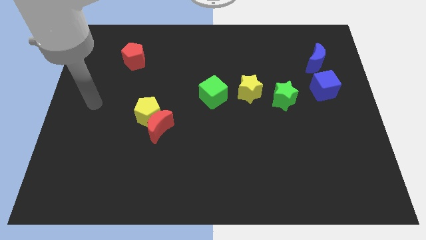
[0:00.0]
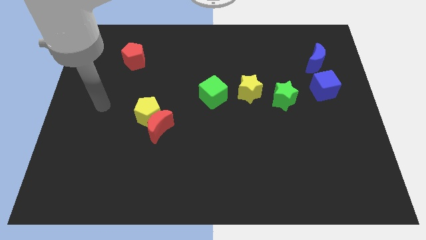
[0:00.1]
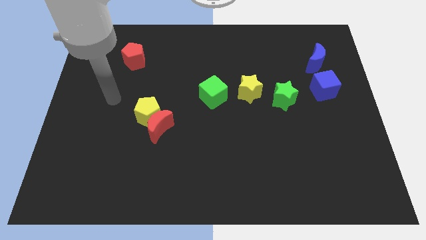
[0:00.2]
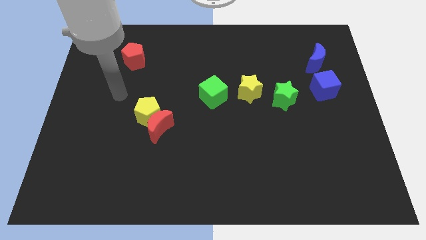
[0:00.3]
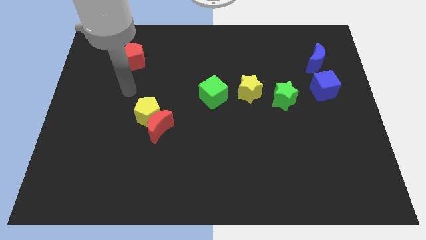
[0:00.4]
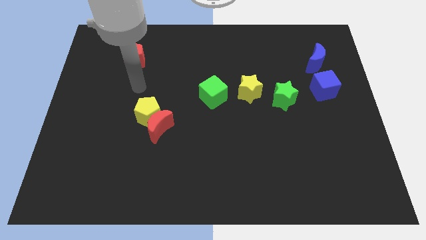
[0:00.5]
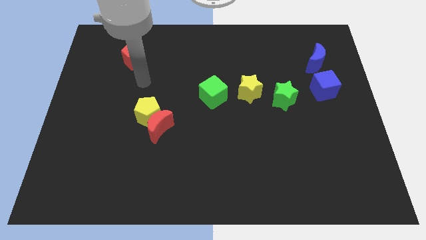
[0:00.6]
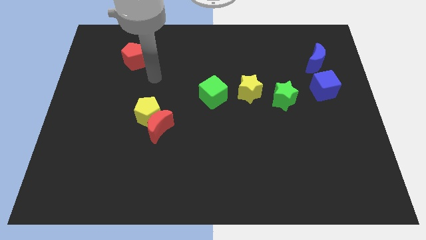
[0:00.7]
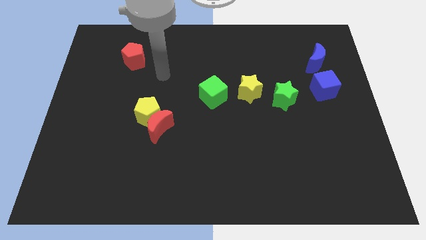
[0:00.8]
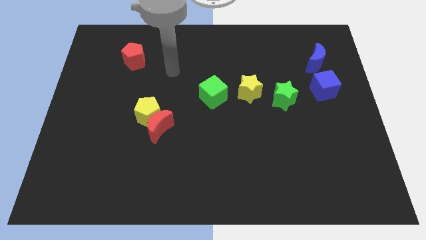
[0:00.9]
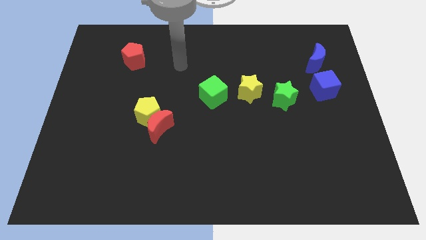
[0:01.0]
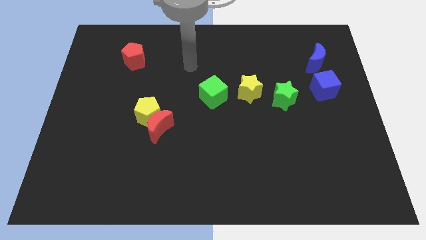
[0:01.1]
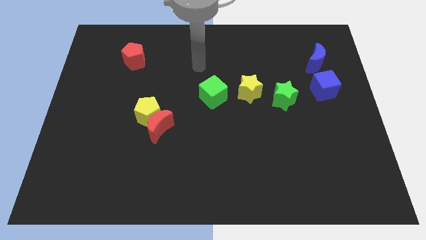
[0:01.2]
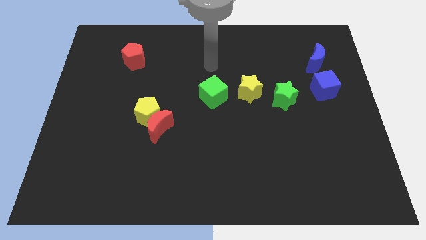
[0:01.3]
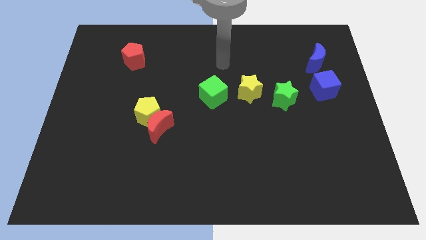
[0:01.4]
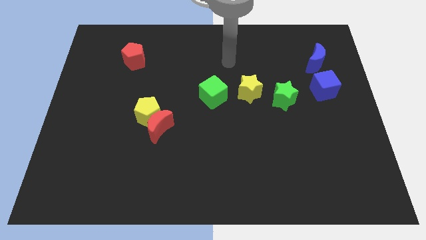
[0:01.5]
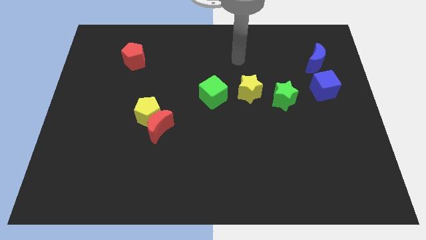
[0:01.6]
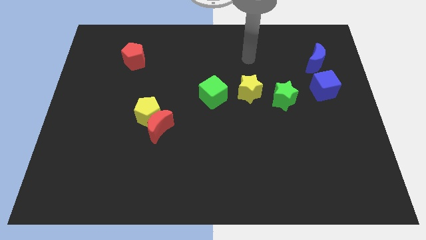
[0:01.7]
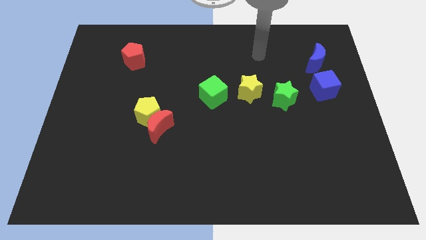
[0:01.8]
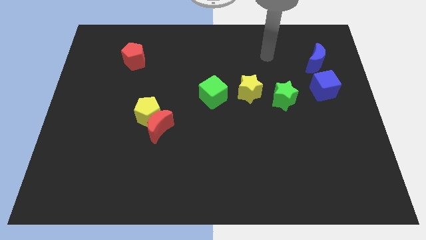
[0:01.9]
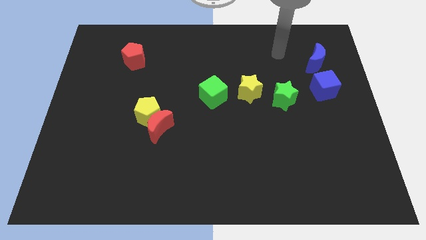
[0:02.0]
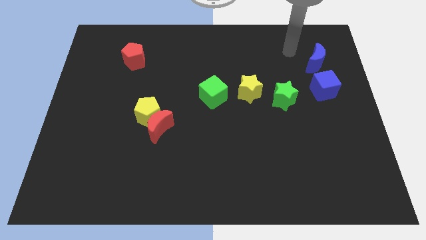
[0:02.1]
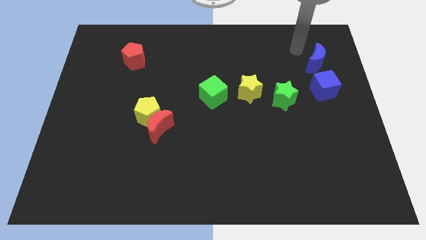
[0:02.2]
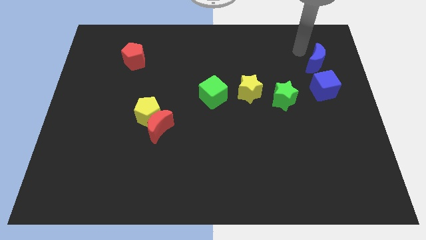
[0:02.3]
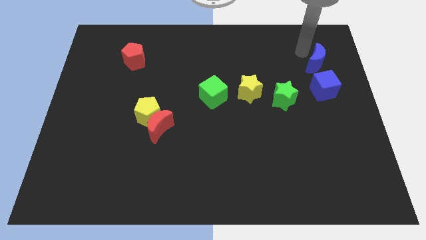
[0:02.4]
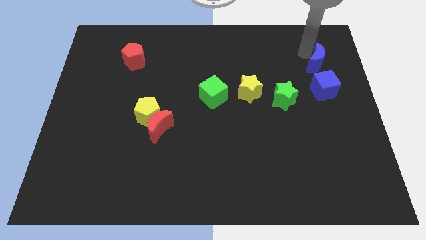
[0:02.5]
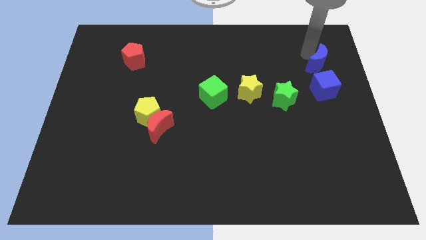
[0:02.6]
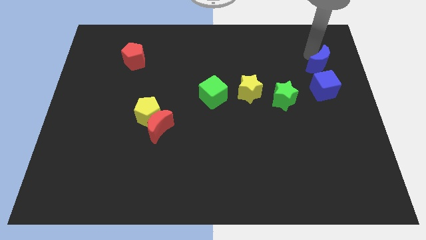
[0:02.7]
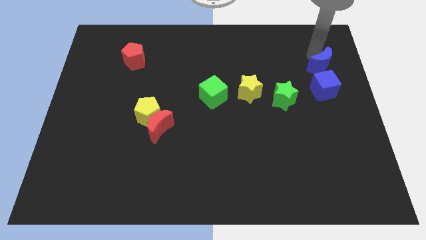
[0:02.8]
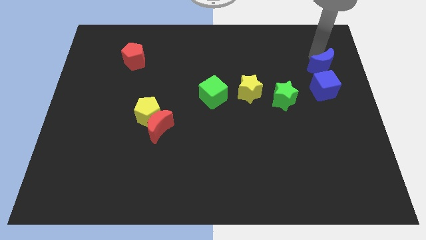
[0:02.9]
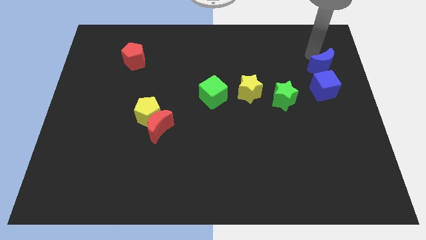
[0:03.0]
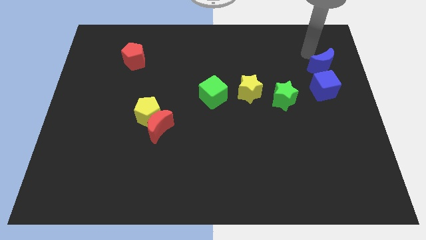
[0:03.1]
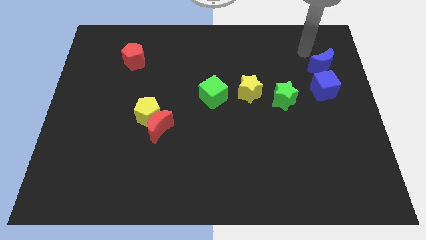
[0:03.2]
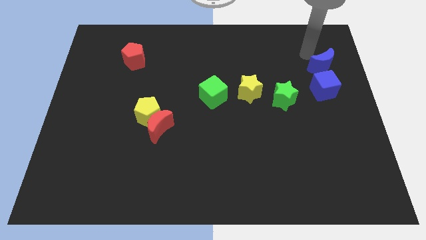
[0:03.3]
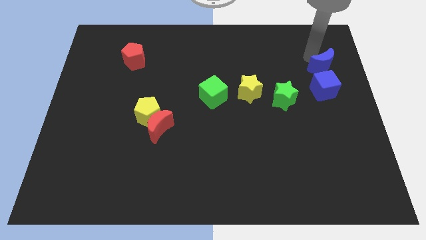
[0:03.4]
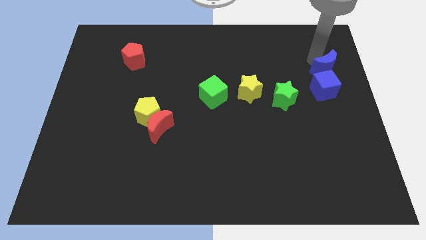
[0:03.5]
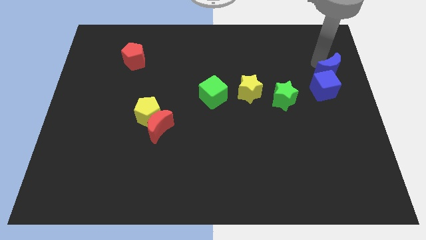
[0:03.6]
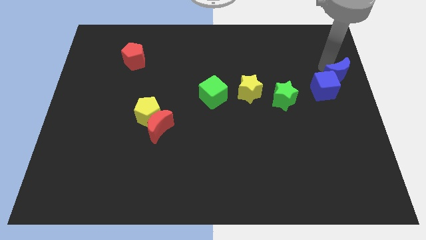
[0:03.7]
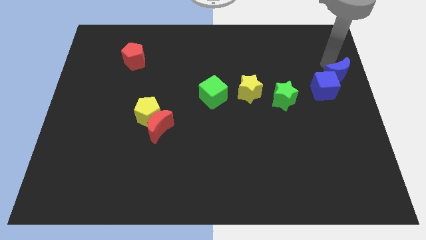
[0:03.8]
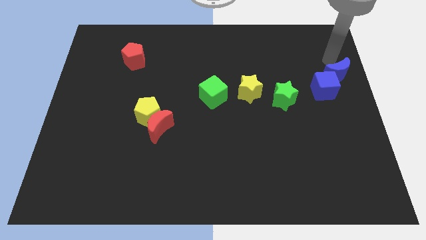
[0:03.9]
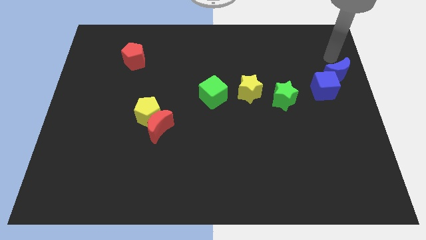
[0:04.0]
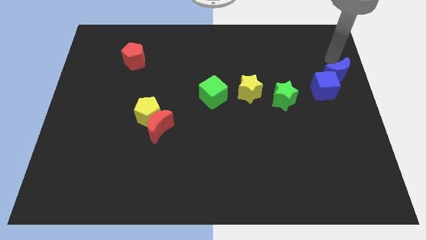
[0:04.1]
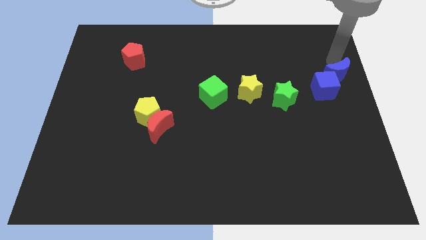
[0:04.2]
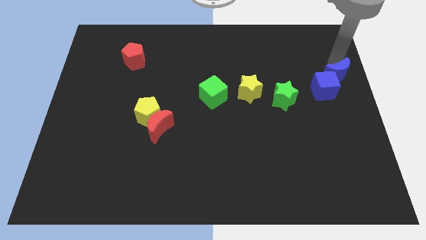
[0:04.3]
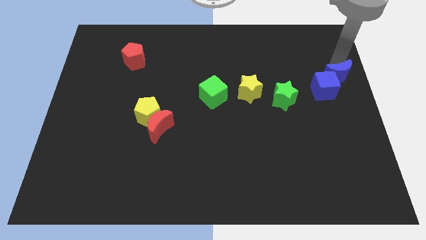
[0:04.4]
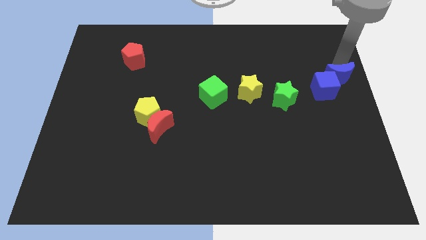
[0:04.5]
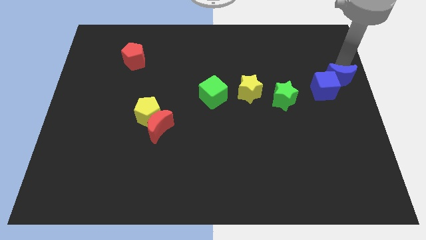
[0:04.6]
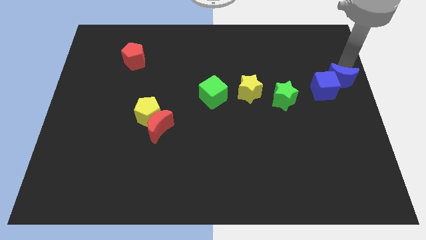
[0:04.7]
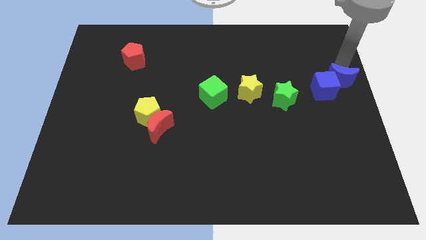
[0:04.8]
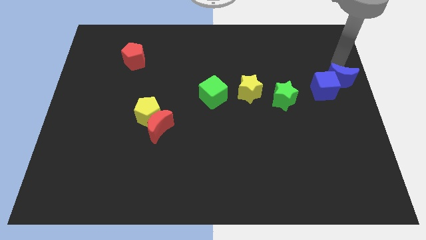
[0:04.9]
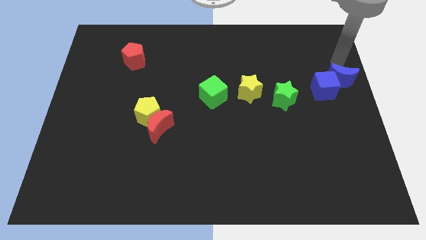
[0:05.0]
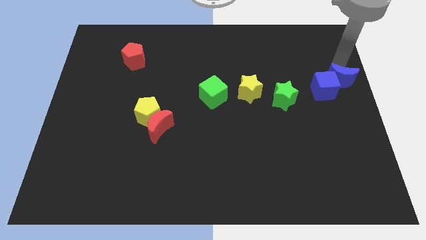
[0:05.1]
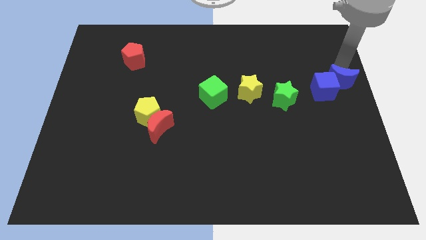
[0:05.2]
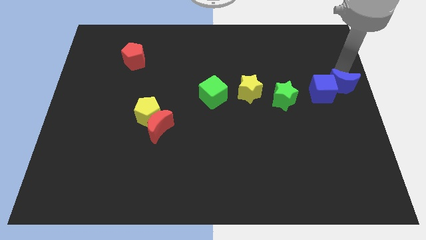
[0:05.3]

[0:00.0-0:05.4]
slightly push the blue moon downwards

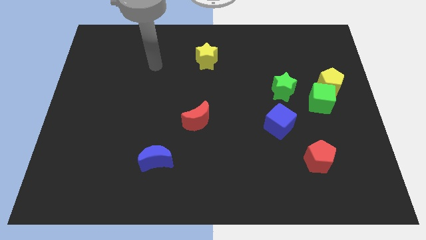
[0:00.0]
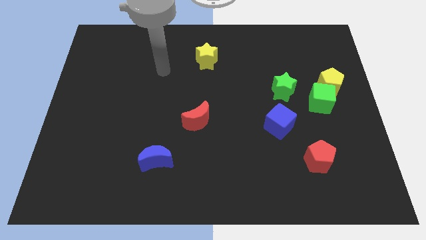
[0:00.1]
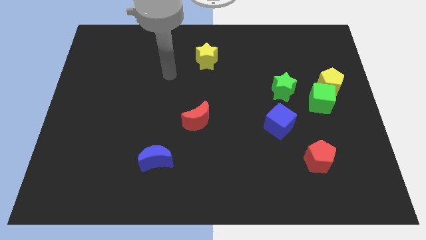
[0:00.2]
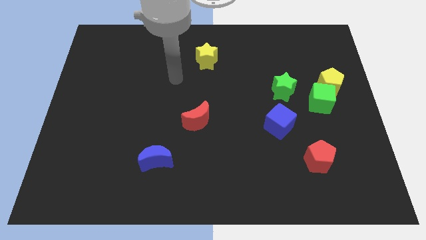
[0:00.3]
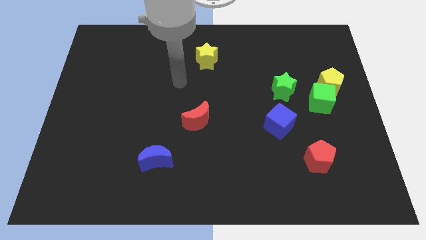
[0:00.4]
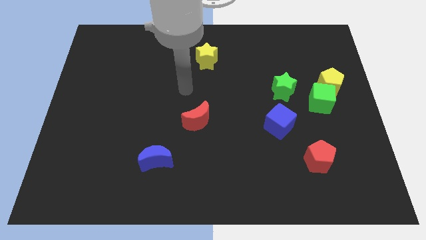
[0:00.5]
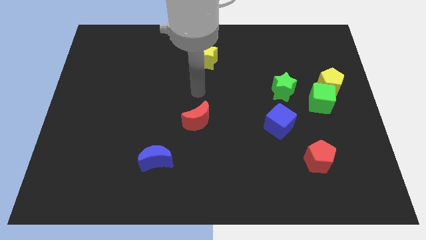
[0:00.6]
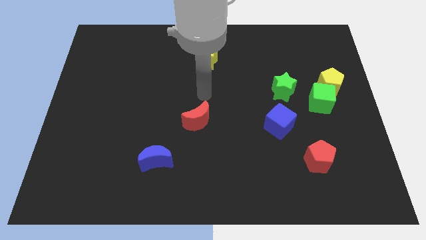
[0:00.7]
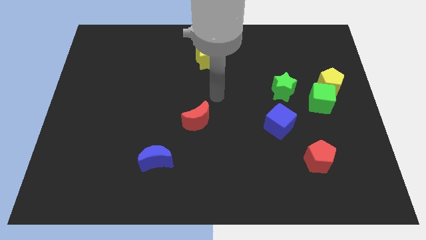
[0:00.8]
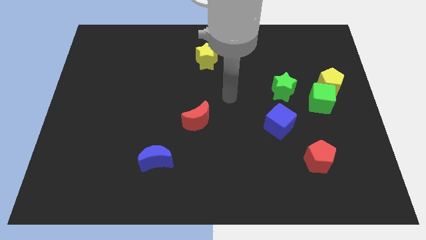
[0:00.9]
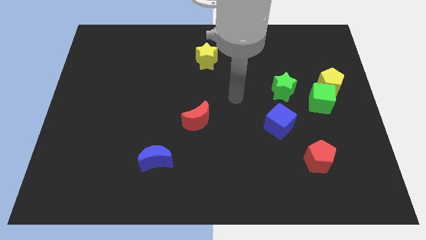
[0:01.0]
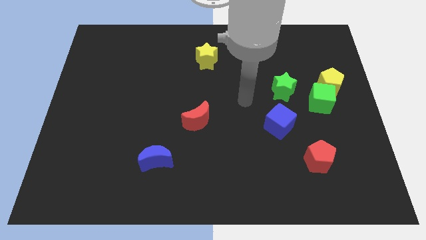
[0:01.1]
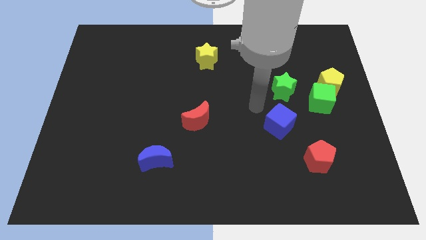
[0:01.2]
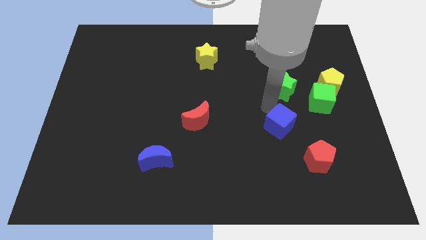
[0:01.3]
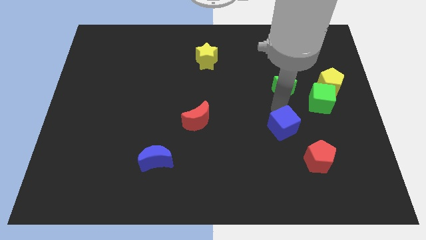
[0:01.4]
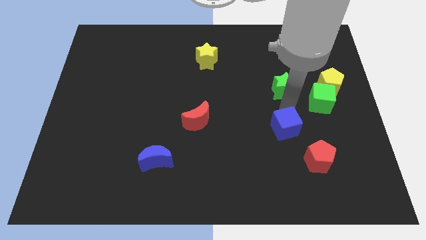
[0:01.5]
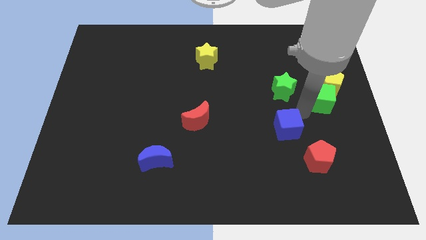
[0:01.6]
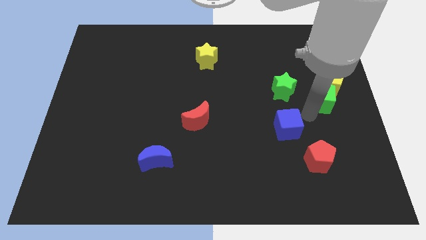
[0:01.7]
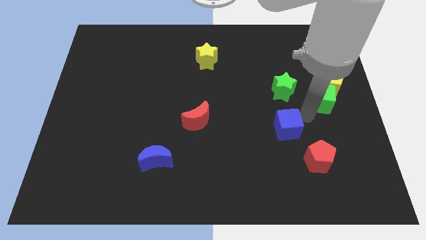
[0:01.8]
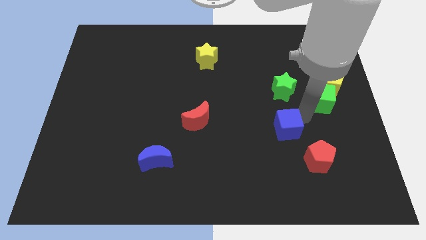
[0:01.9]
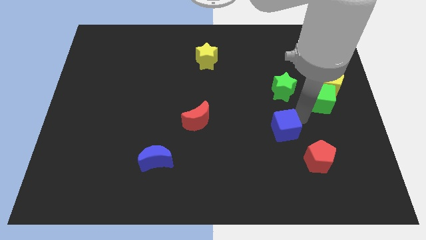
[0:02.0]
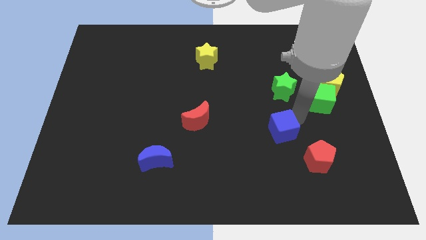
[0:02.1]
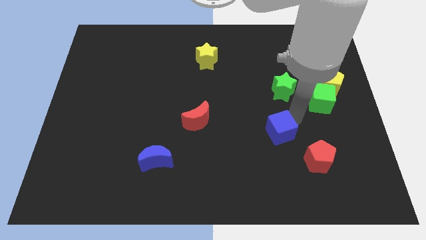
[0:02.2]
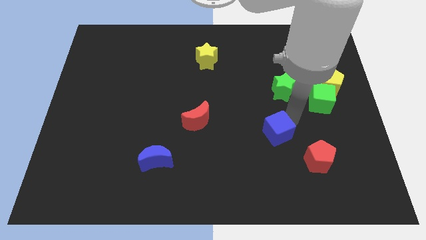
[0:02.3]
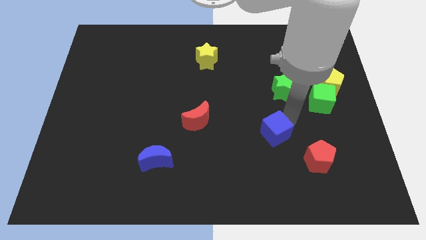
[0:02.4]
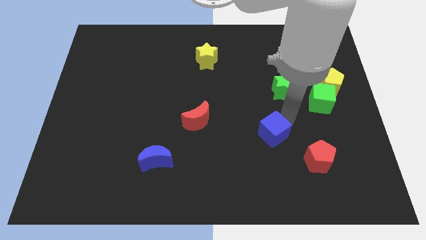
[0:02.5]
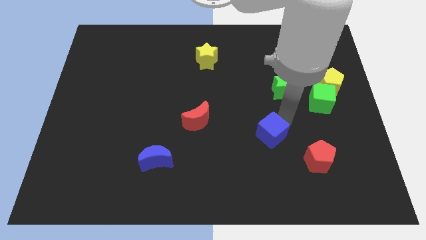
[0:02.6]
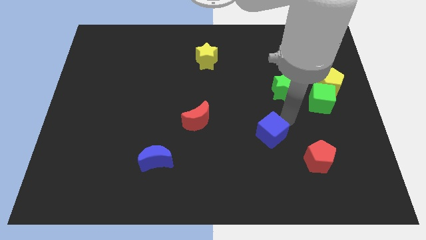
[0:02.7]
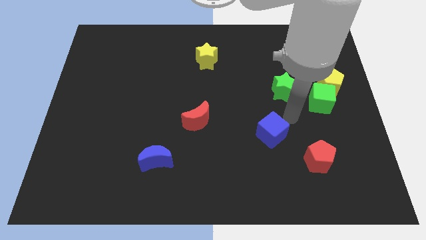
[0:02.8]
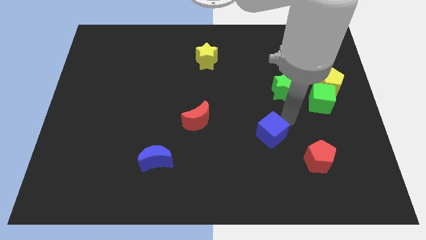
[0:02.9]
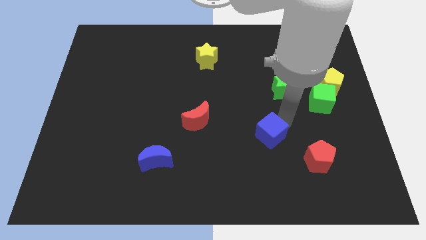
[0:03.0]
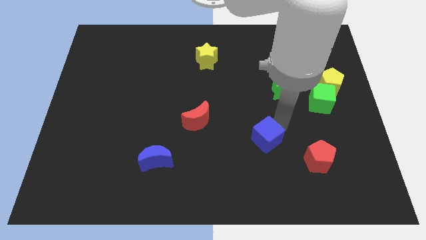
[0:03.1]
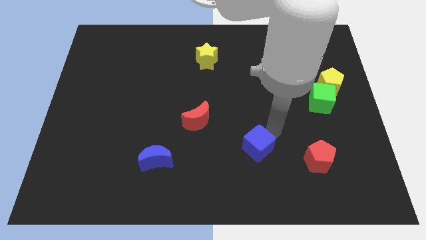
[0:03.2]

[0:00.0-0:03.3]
slightly slide the blue cube downwards and then to the left
